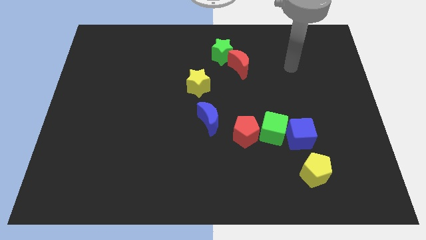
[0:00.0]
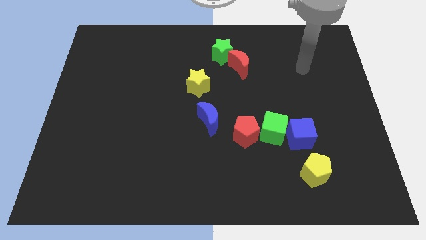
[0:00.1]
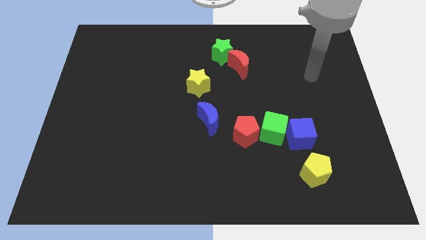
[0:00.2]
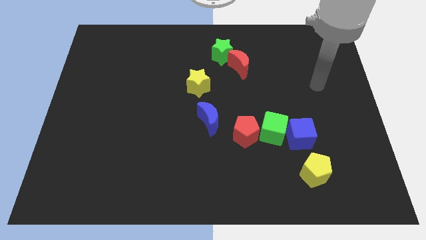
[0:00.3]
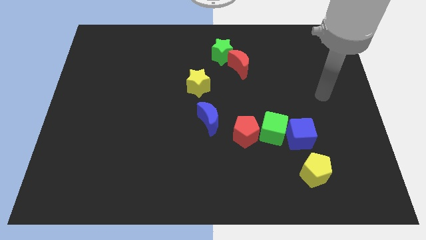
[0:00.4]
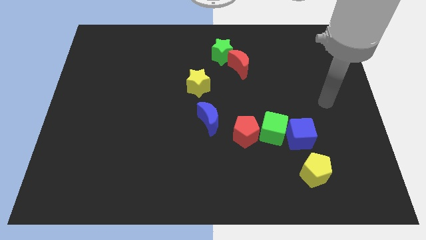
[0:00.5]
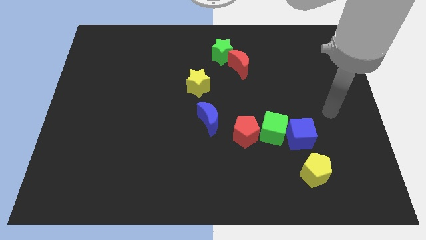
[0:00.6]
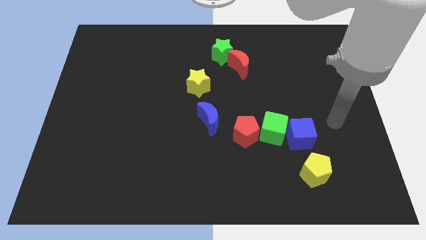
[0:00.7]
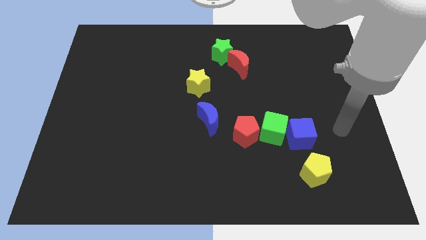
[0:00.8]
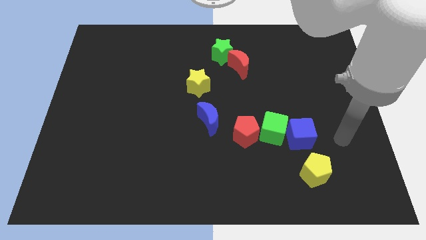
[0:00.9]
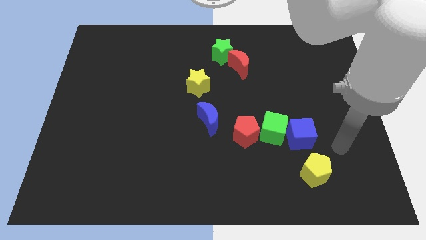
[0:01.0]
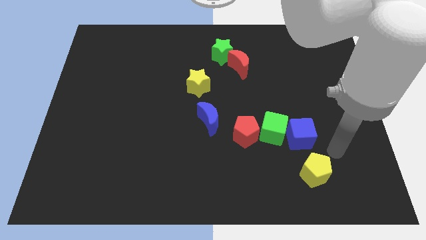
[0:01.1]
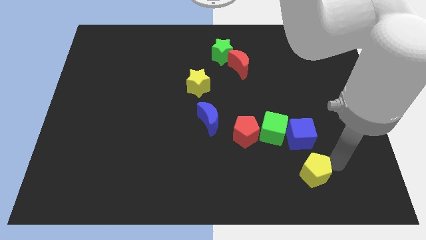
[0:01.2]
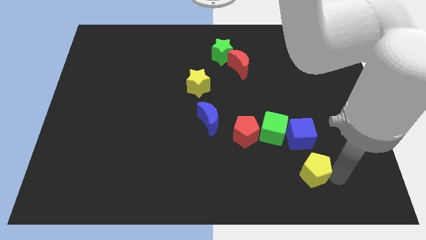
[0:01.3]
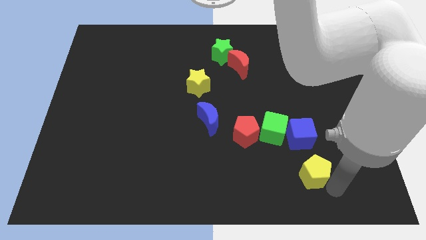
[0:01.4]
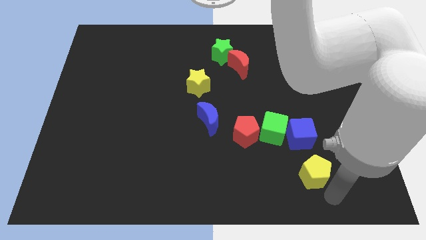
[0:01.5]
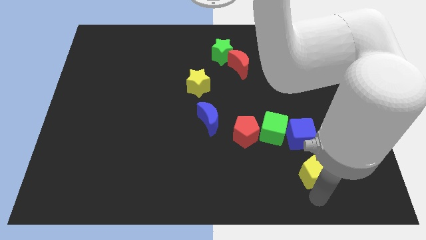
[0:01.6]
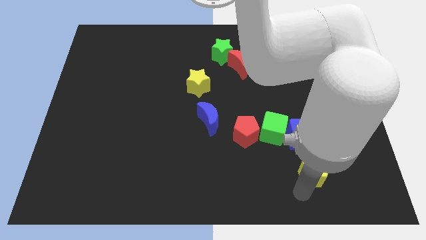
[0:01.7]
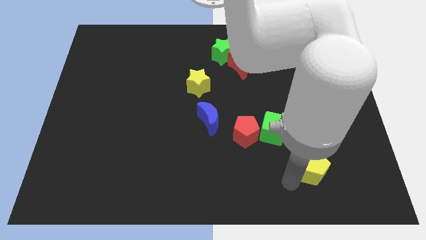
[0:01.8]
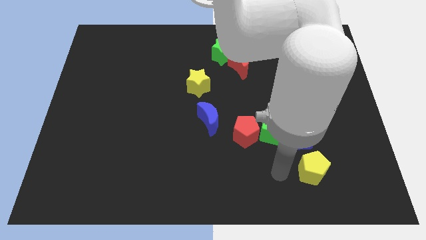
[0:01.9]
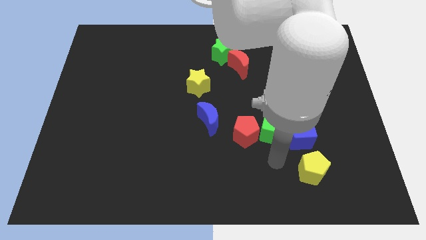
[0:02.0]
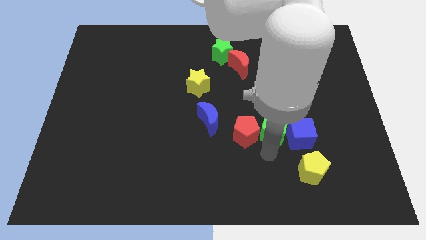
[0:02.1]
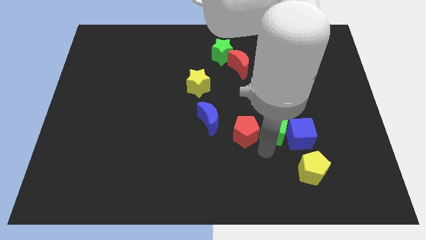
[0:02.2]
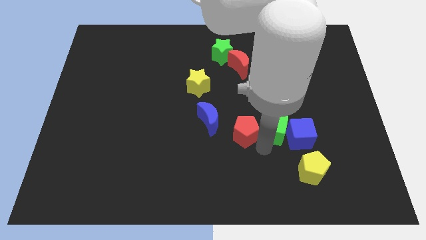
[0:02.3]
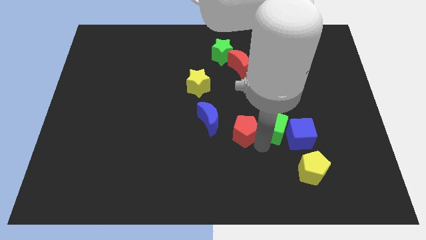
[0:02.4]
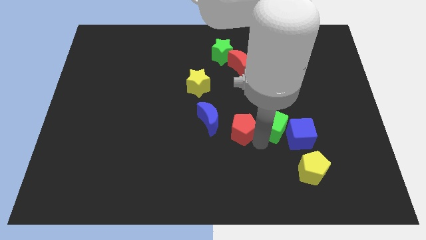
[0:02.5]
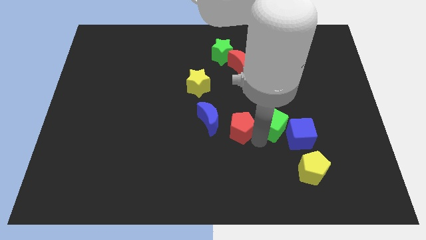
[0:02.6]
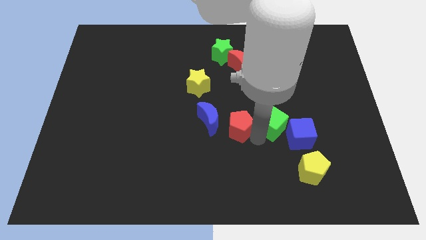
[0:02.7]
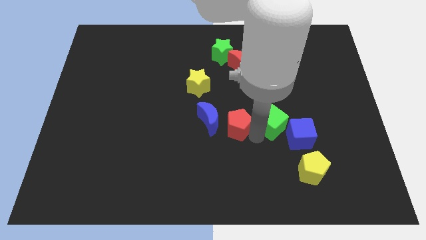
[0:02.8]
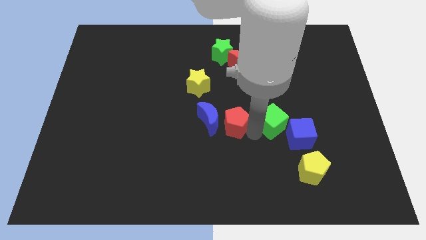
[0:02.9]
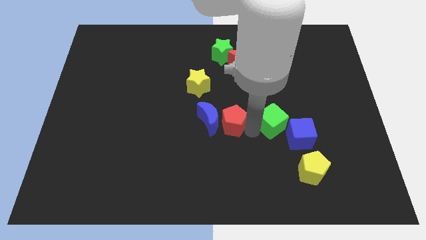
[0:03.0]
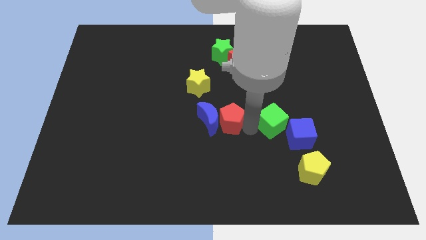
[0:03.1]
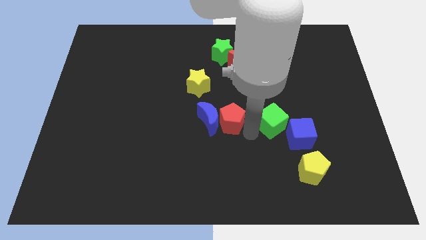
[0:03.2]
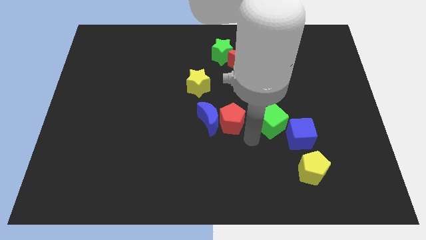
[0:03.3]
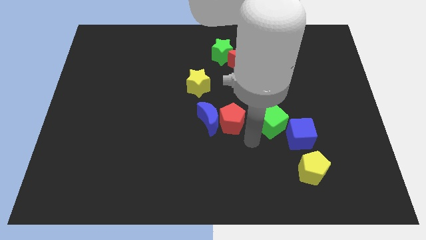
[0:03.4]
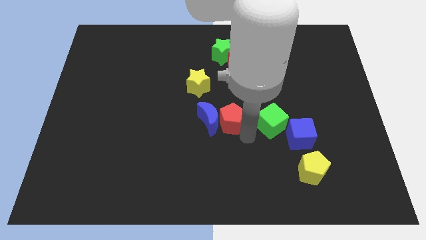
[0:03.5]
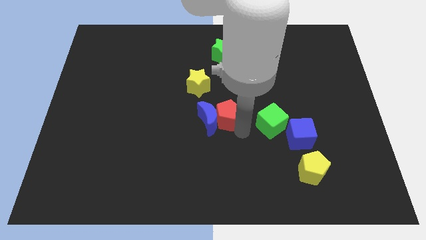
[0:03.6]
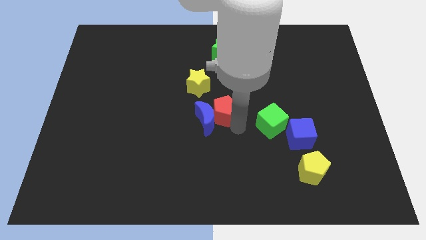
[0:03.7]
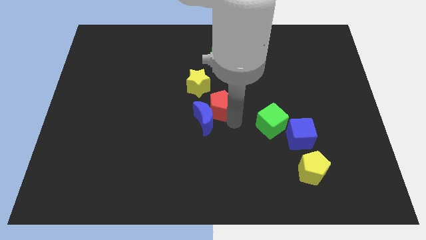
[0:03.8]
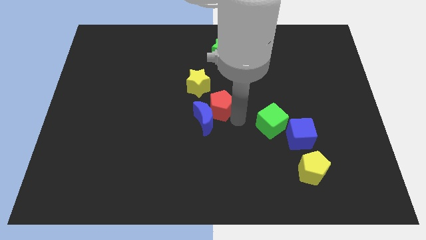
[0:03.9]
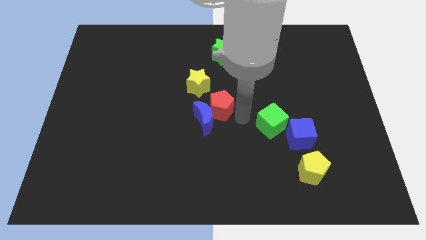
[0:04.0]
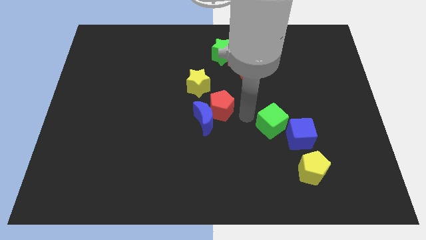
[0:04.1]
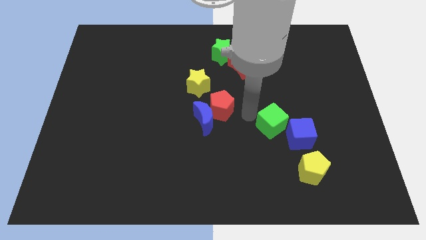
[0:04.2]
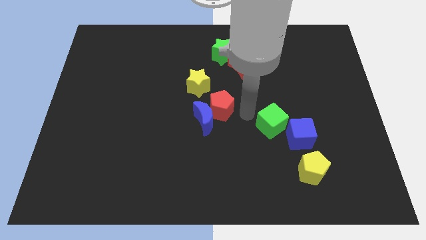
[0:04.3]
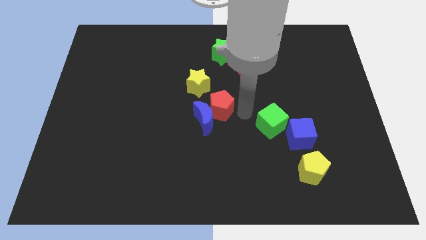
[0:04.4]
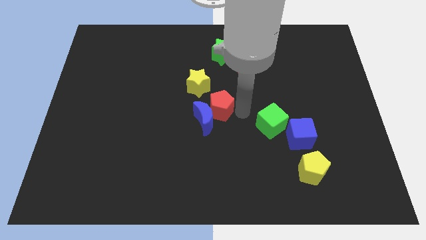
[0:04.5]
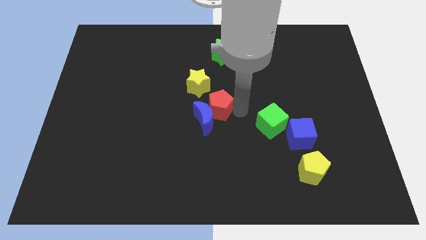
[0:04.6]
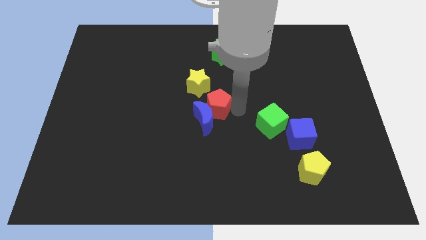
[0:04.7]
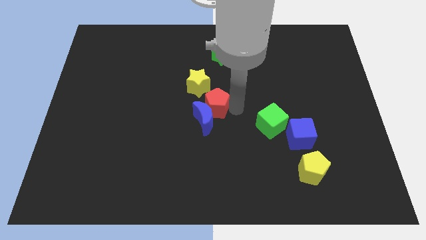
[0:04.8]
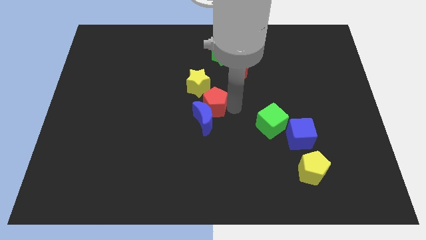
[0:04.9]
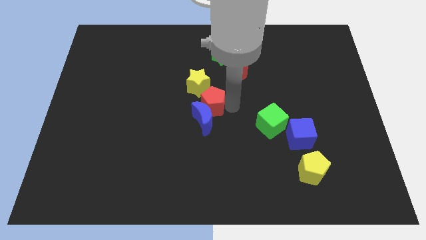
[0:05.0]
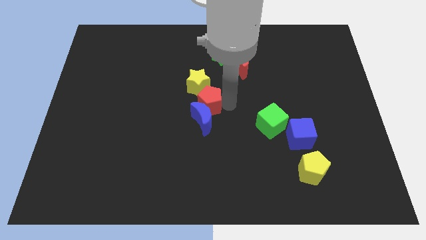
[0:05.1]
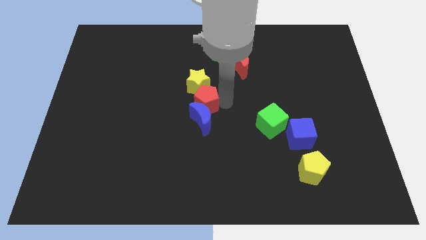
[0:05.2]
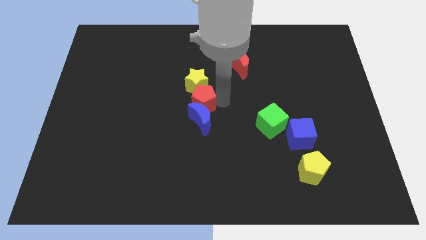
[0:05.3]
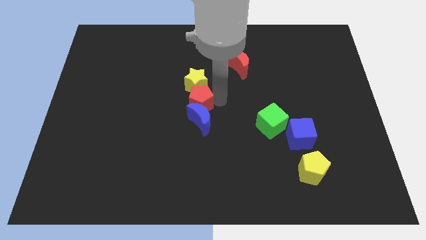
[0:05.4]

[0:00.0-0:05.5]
slide the red pentagon diagonally down and to the left of the yellow star

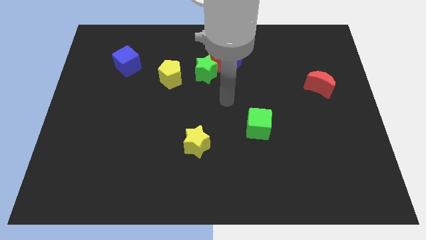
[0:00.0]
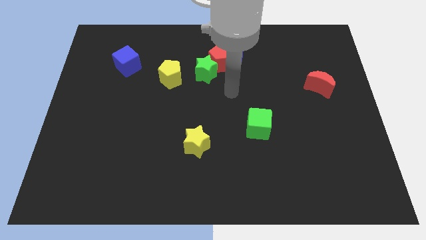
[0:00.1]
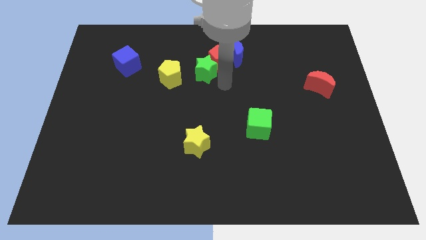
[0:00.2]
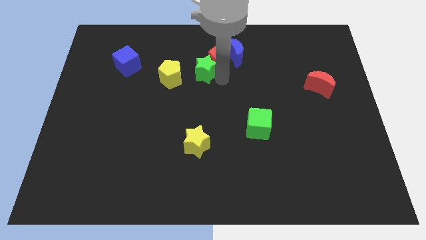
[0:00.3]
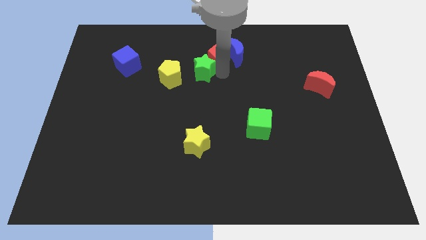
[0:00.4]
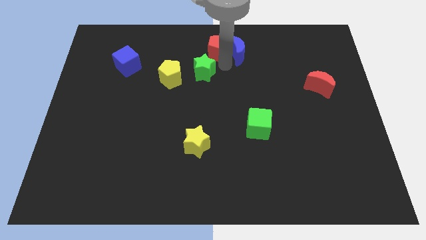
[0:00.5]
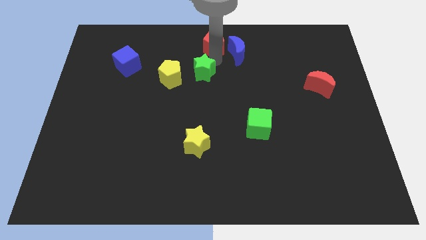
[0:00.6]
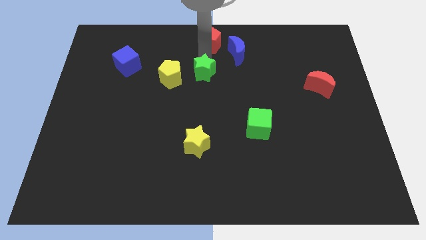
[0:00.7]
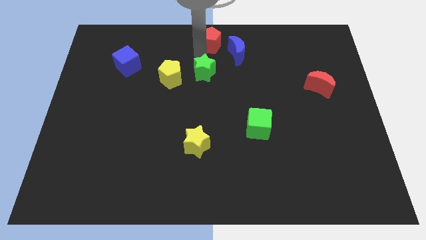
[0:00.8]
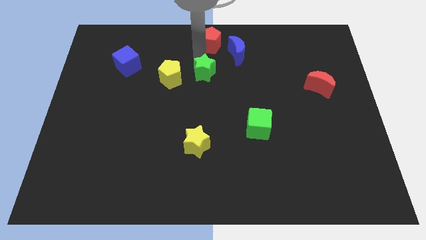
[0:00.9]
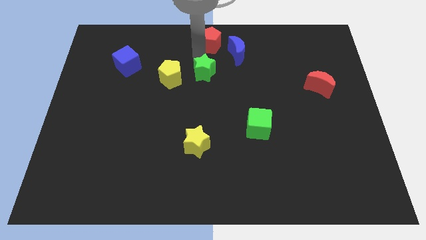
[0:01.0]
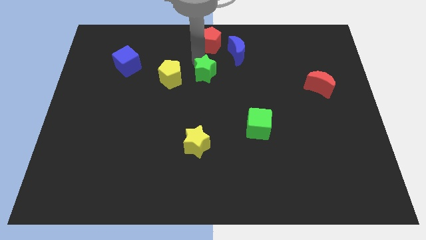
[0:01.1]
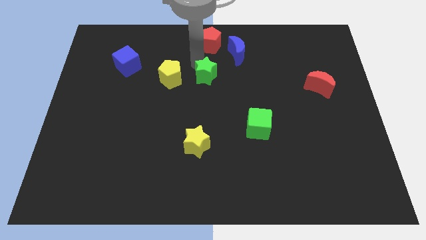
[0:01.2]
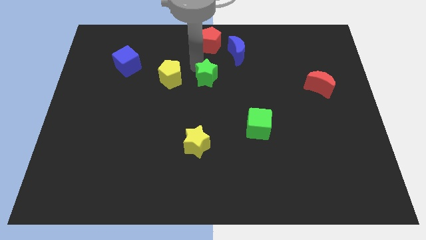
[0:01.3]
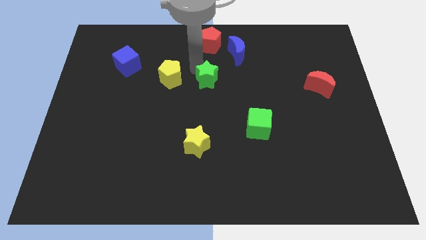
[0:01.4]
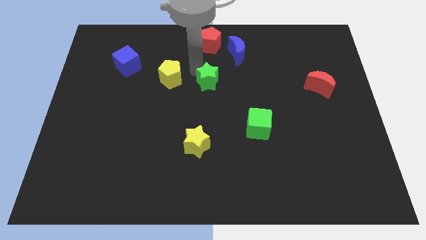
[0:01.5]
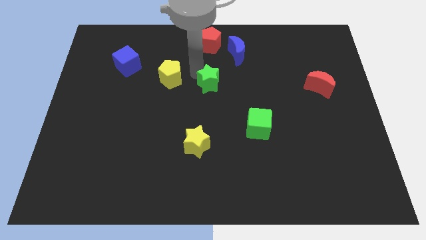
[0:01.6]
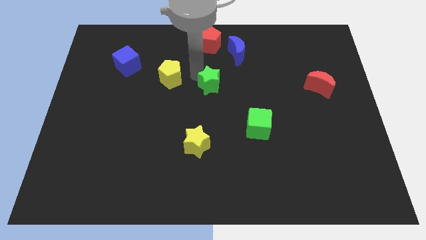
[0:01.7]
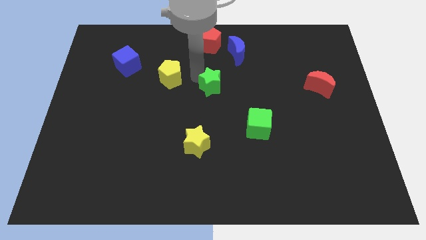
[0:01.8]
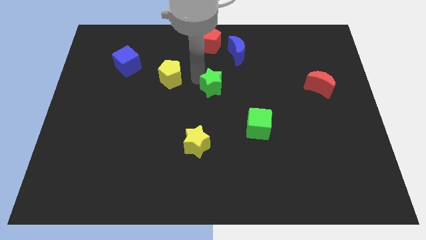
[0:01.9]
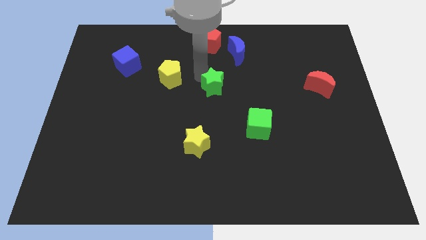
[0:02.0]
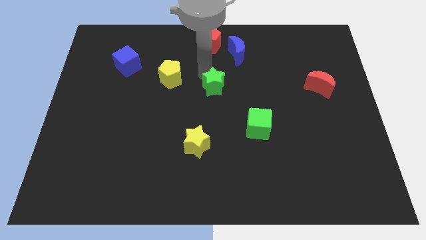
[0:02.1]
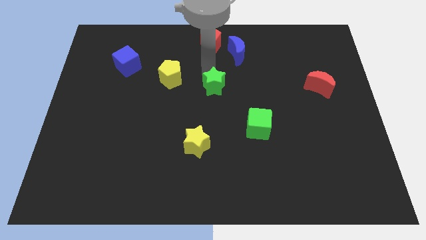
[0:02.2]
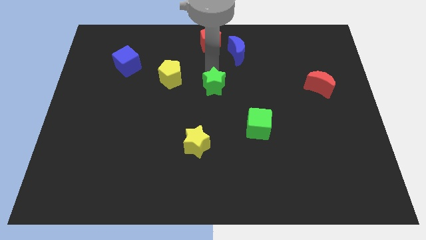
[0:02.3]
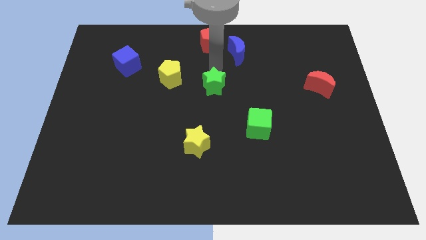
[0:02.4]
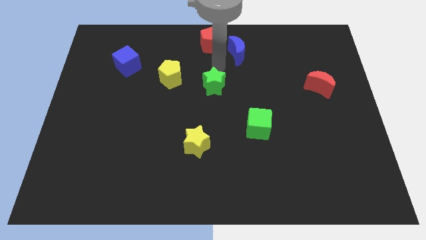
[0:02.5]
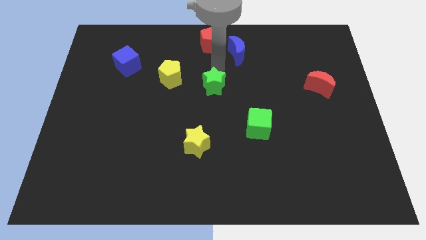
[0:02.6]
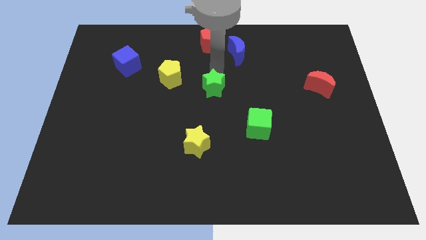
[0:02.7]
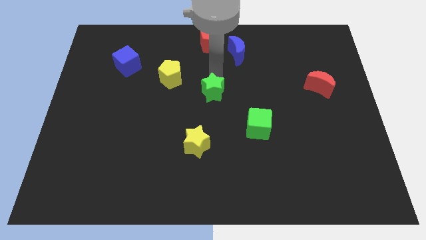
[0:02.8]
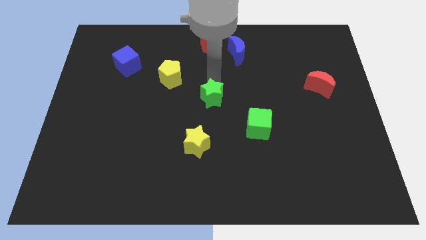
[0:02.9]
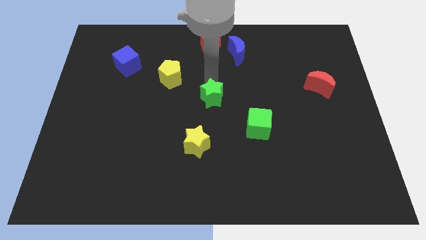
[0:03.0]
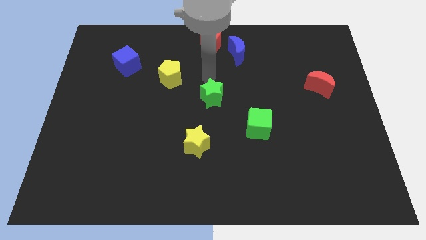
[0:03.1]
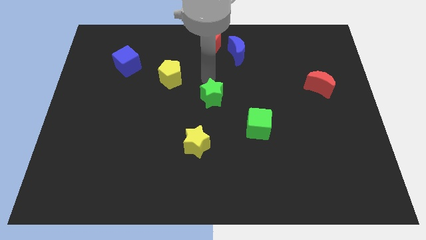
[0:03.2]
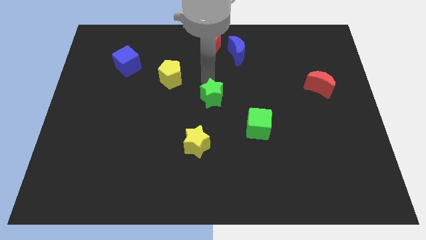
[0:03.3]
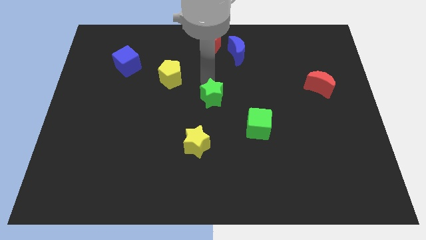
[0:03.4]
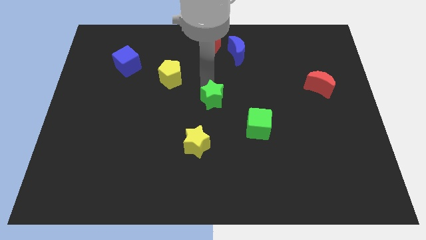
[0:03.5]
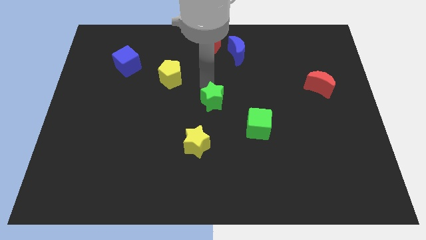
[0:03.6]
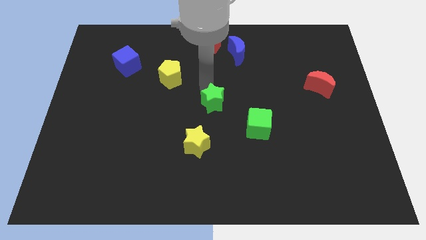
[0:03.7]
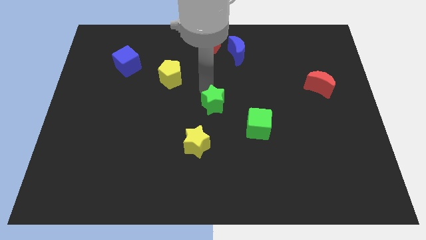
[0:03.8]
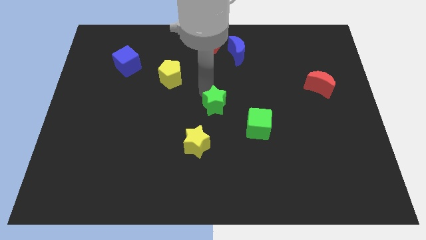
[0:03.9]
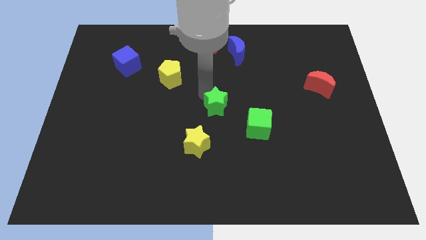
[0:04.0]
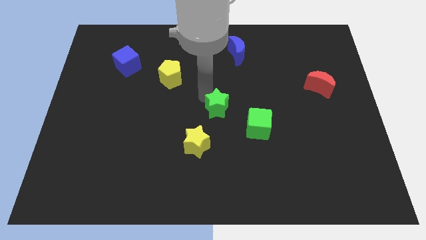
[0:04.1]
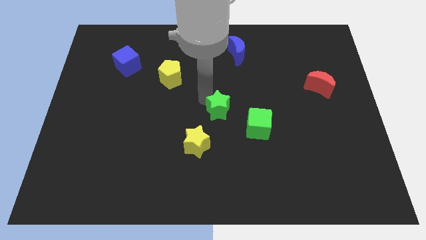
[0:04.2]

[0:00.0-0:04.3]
put the green star to the left side of the green cube
